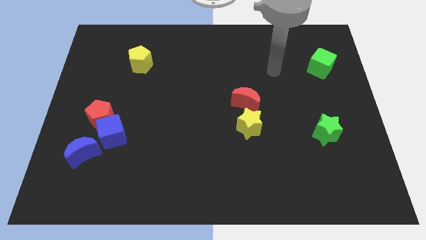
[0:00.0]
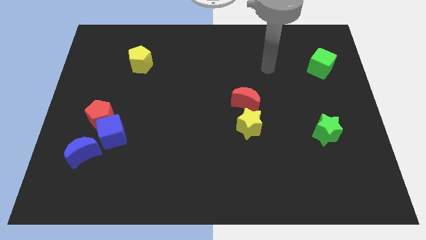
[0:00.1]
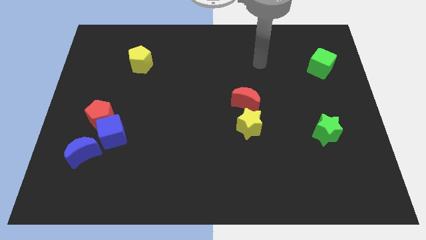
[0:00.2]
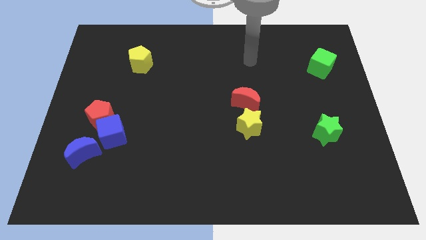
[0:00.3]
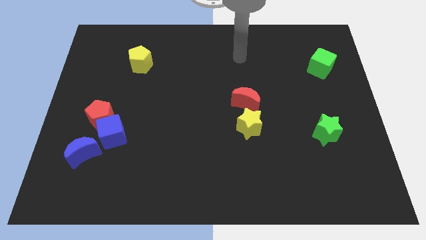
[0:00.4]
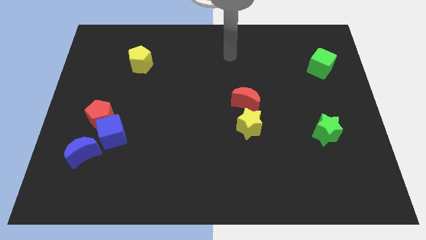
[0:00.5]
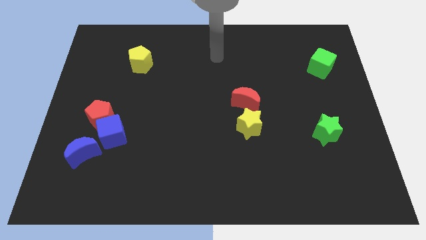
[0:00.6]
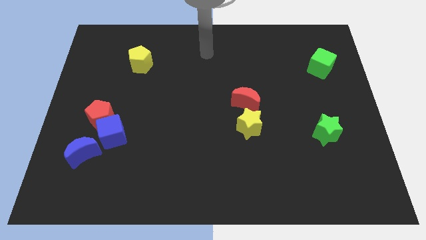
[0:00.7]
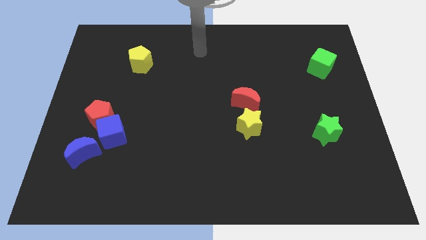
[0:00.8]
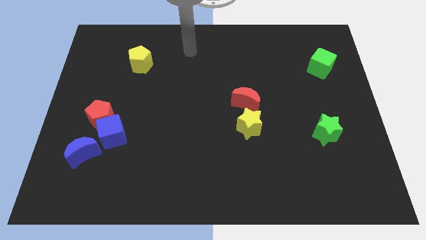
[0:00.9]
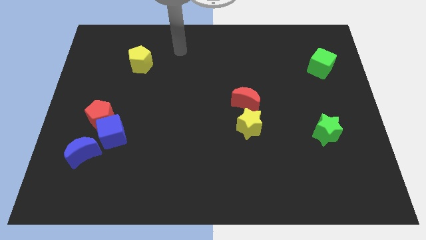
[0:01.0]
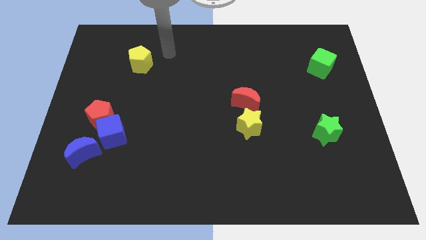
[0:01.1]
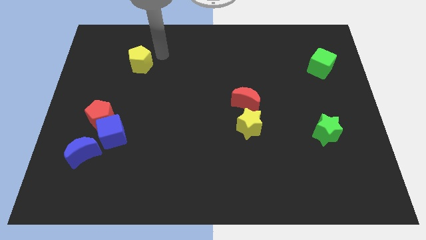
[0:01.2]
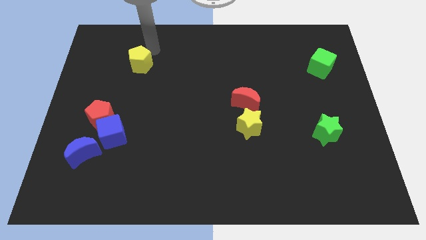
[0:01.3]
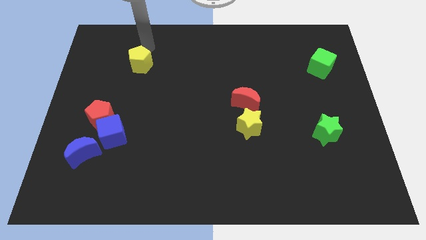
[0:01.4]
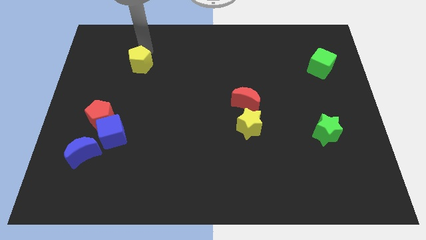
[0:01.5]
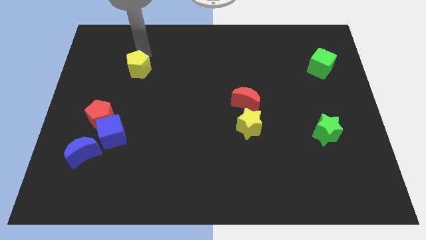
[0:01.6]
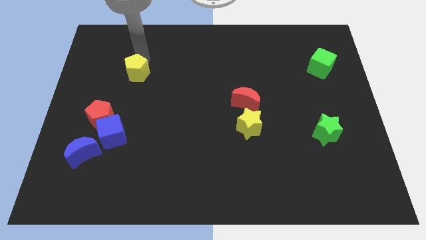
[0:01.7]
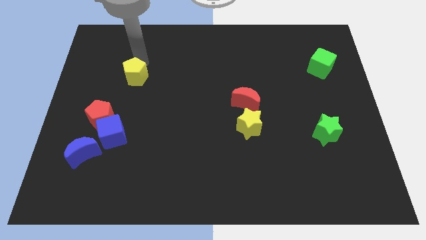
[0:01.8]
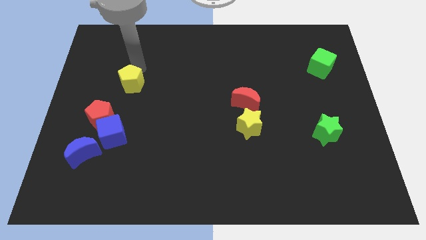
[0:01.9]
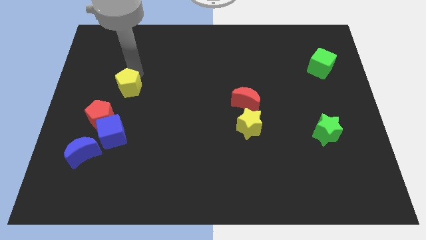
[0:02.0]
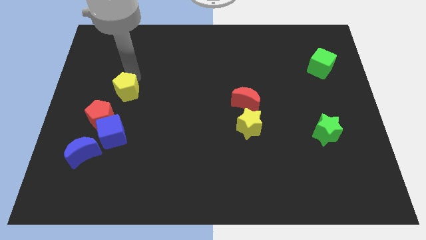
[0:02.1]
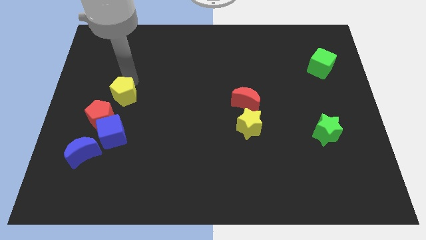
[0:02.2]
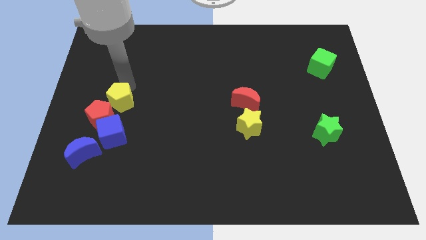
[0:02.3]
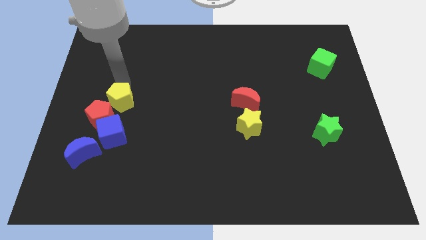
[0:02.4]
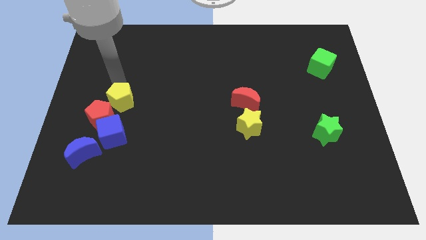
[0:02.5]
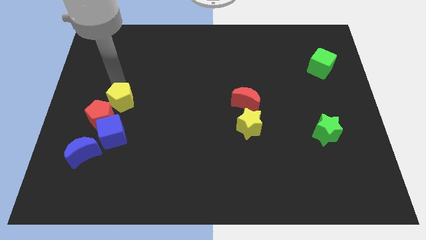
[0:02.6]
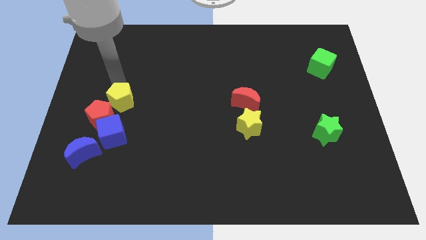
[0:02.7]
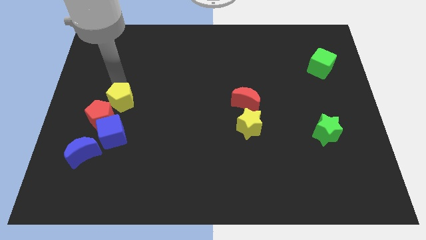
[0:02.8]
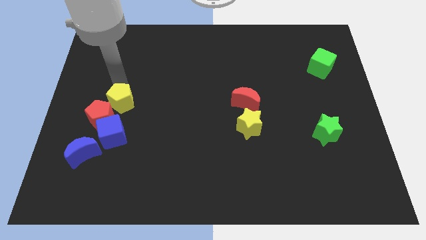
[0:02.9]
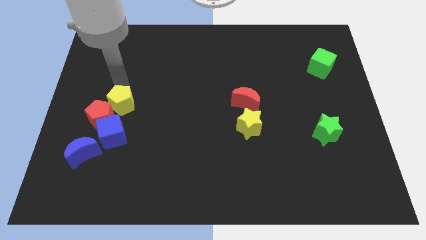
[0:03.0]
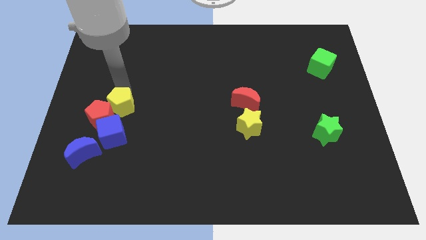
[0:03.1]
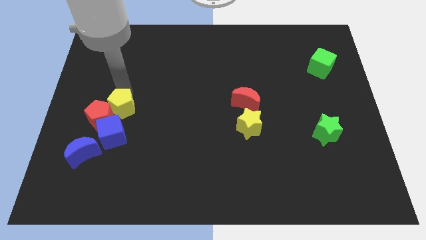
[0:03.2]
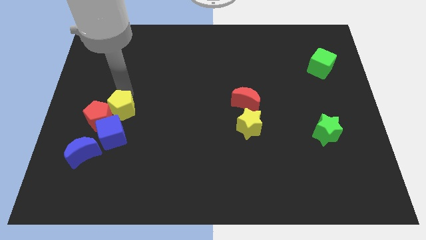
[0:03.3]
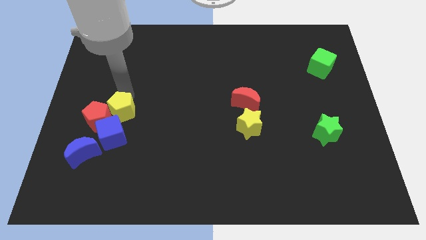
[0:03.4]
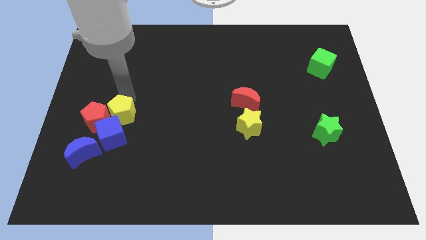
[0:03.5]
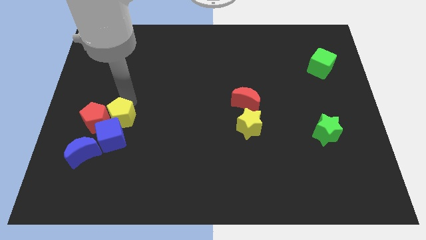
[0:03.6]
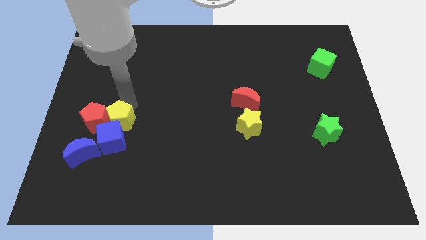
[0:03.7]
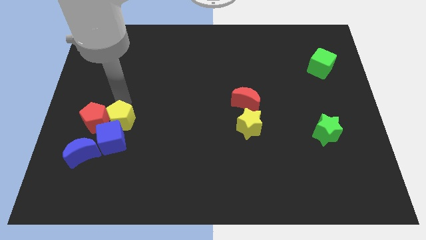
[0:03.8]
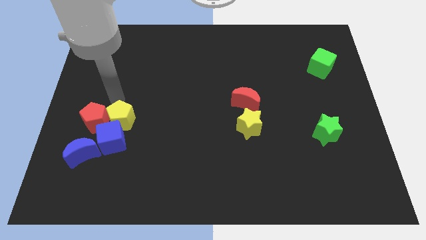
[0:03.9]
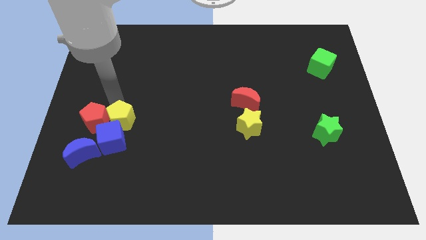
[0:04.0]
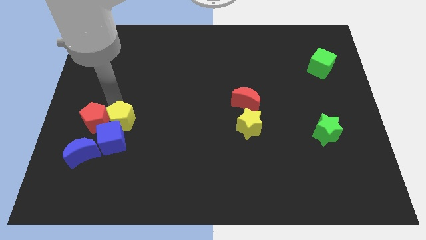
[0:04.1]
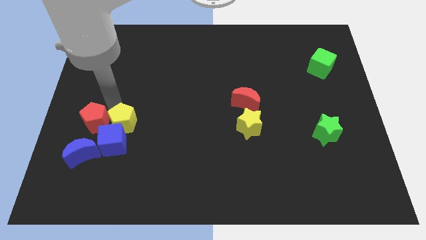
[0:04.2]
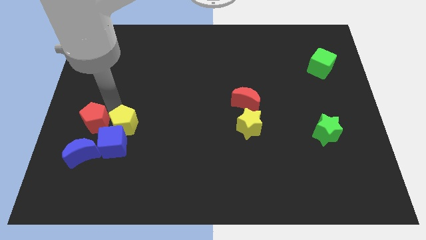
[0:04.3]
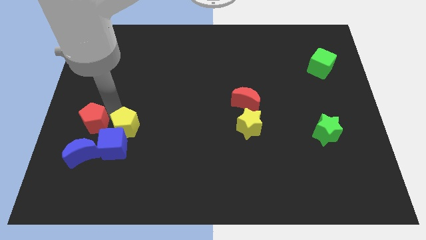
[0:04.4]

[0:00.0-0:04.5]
move the yellow pentagon downwards

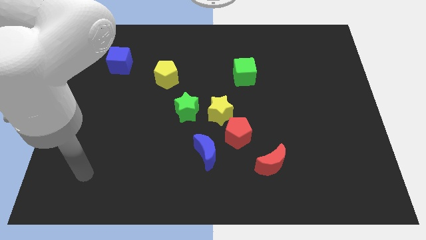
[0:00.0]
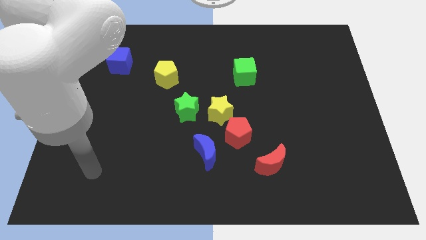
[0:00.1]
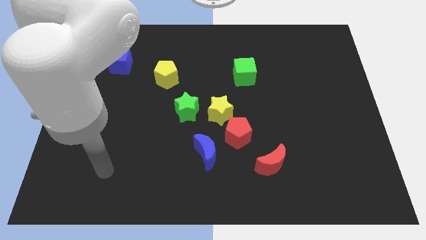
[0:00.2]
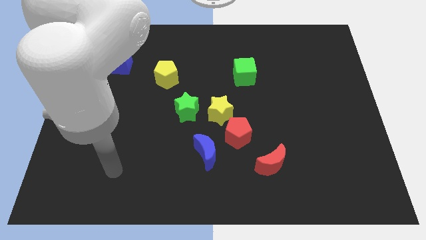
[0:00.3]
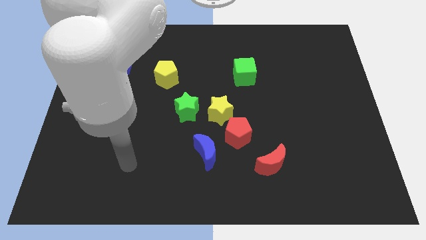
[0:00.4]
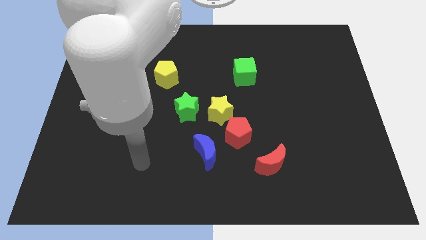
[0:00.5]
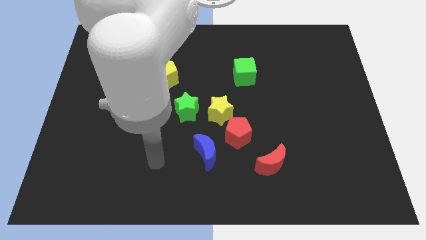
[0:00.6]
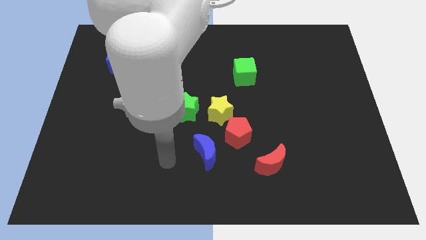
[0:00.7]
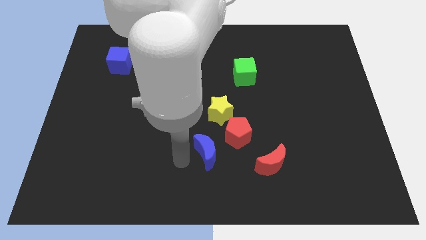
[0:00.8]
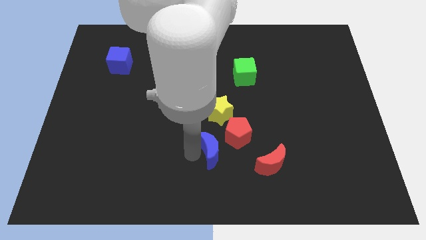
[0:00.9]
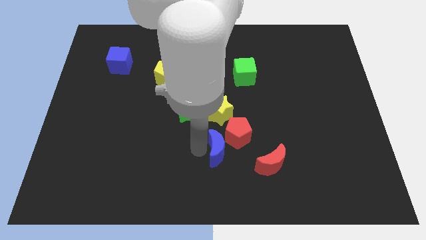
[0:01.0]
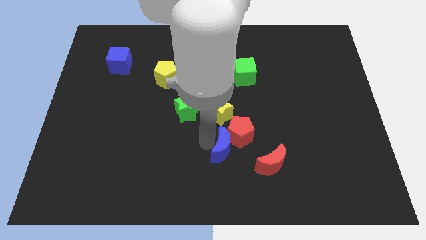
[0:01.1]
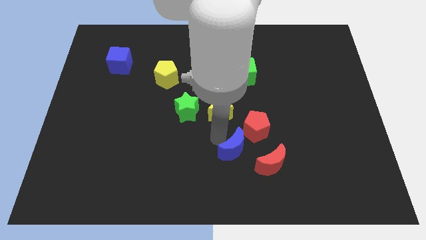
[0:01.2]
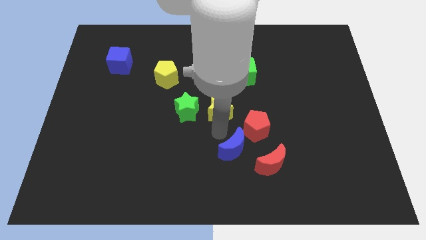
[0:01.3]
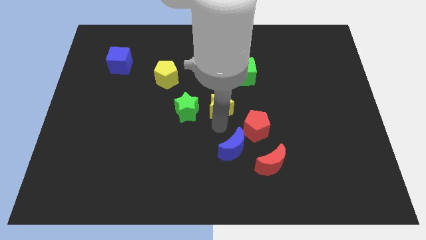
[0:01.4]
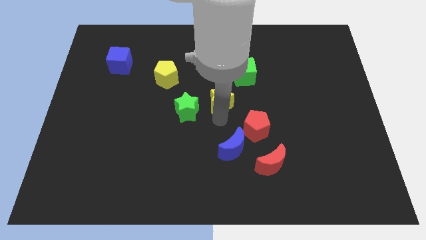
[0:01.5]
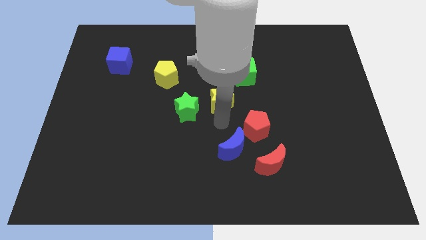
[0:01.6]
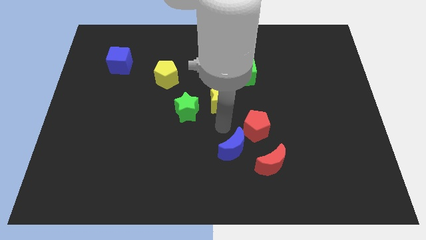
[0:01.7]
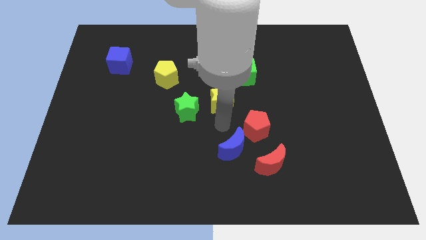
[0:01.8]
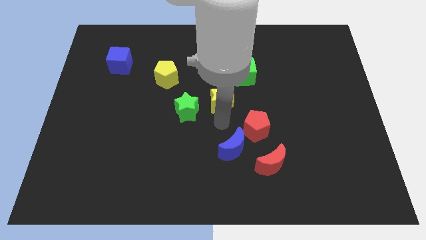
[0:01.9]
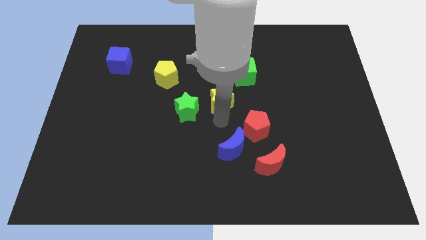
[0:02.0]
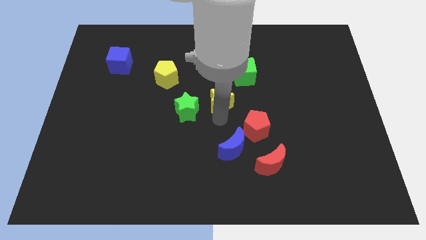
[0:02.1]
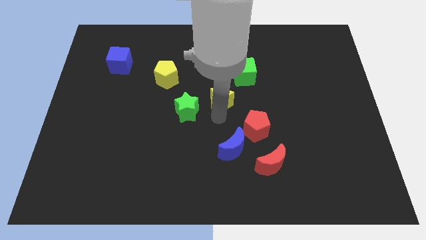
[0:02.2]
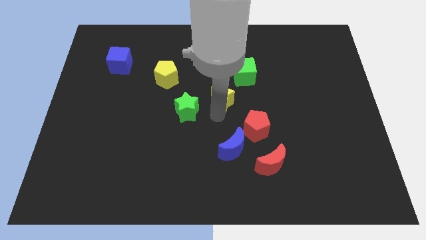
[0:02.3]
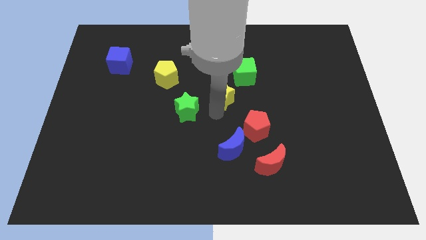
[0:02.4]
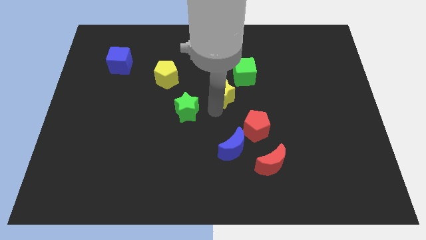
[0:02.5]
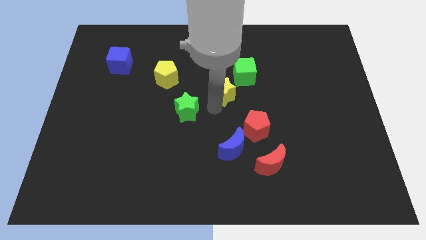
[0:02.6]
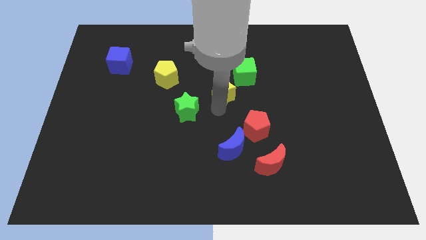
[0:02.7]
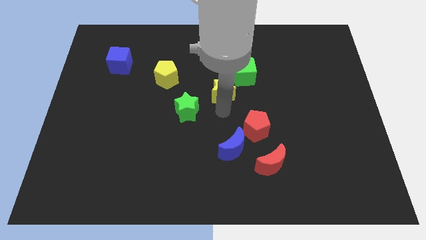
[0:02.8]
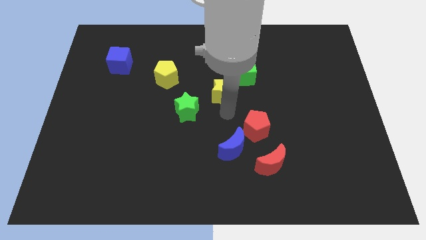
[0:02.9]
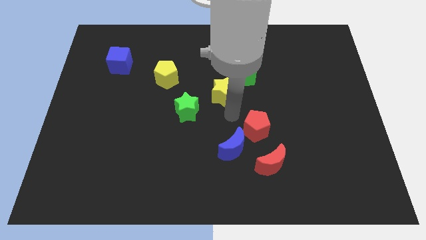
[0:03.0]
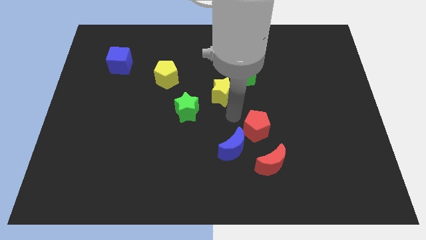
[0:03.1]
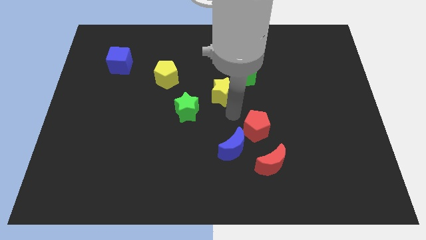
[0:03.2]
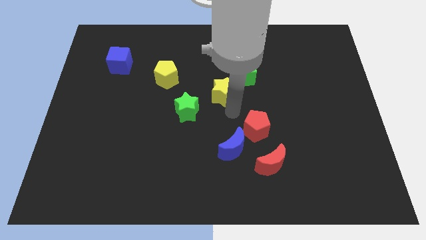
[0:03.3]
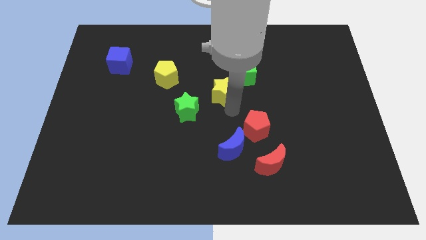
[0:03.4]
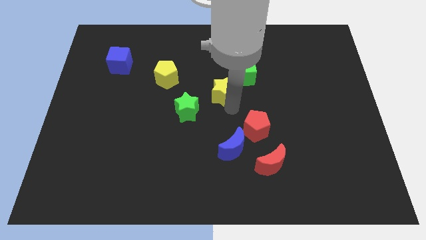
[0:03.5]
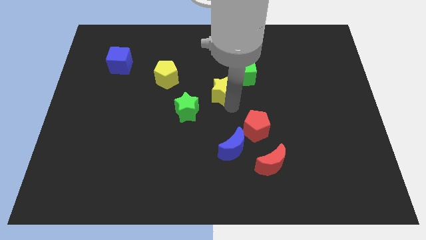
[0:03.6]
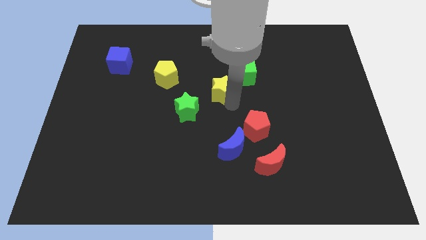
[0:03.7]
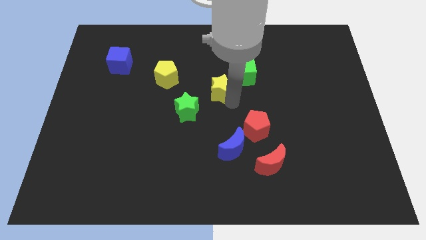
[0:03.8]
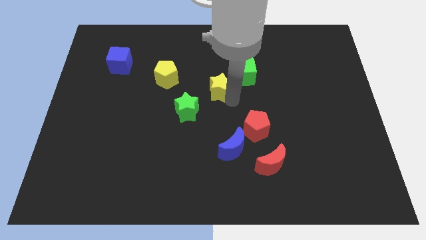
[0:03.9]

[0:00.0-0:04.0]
slightly move the yellow star up
